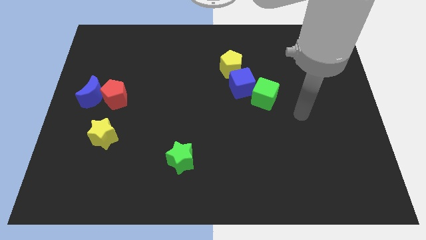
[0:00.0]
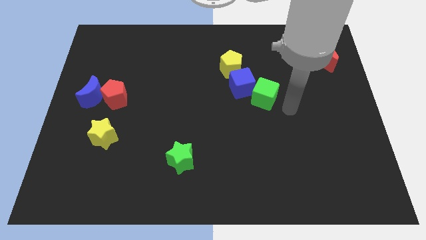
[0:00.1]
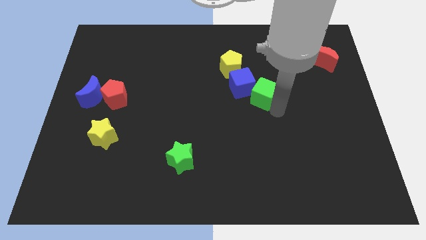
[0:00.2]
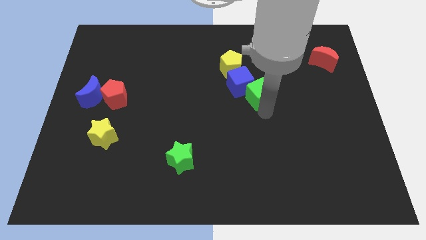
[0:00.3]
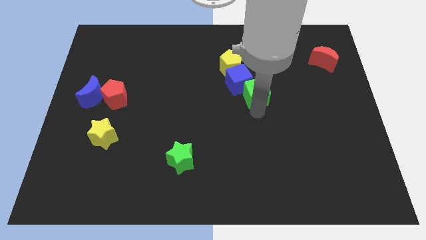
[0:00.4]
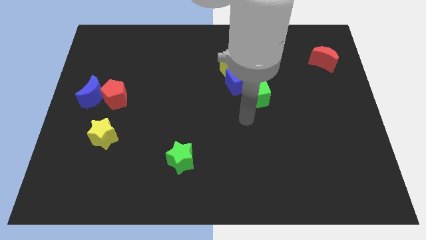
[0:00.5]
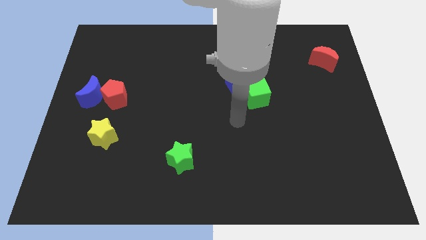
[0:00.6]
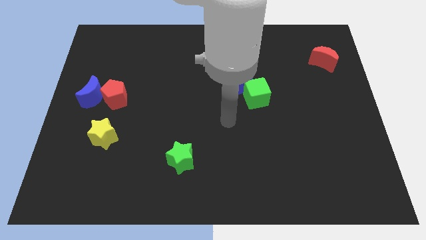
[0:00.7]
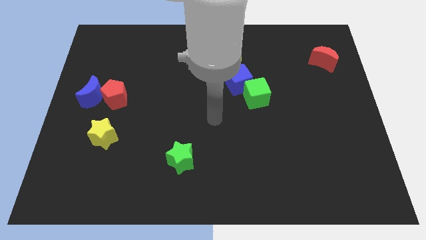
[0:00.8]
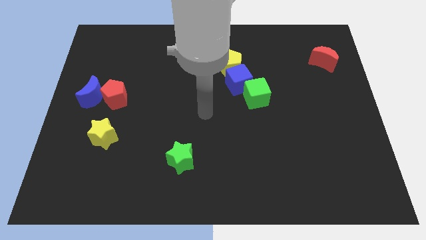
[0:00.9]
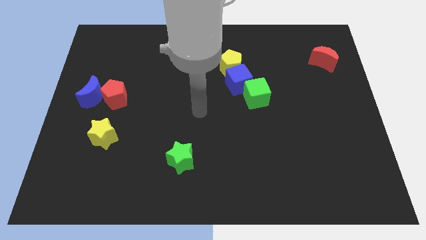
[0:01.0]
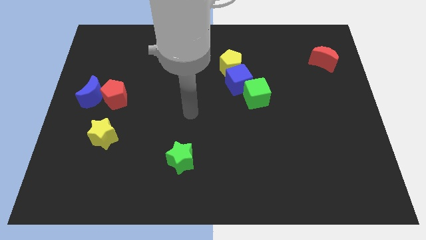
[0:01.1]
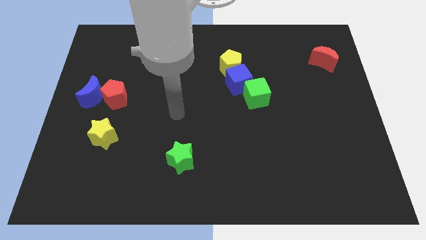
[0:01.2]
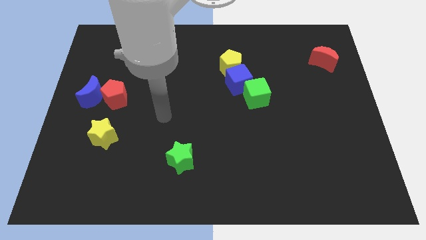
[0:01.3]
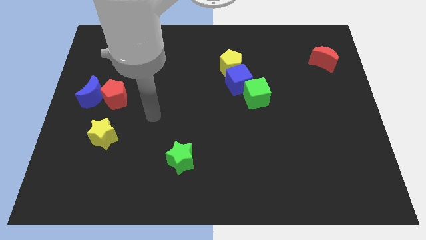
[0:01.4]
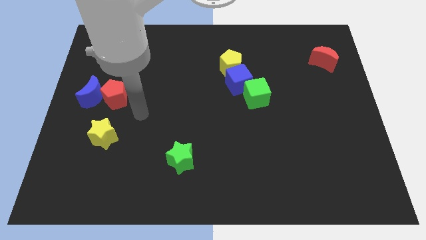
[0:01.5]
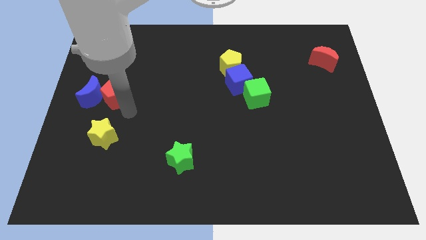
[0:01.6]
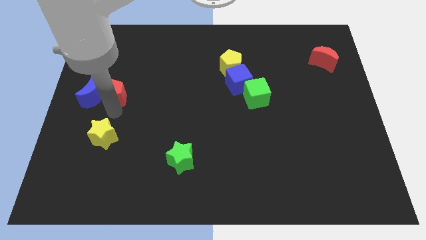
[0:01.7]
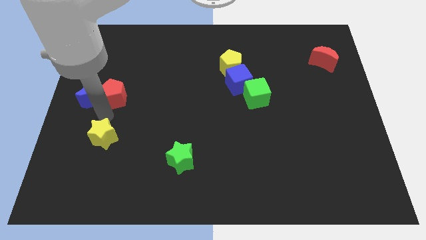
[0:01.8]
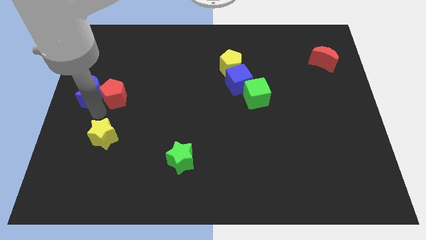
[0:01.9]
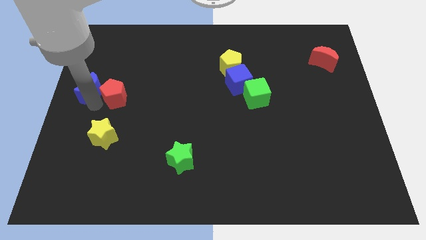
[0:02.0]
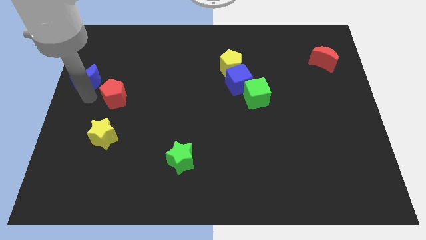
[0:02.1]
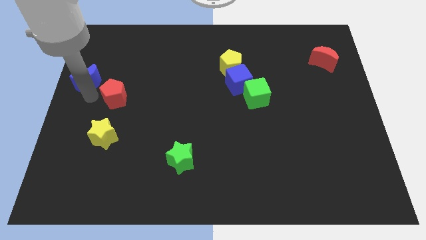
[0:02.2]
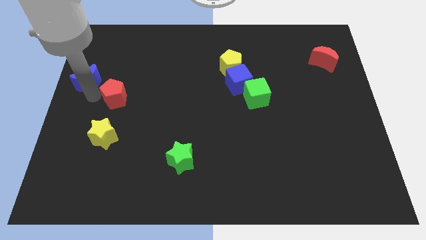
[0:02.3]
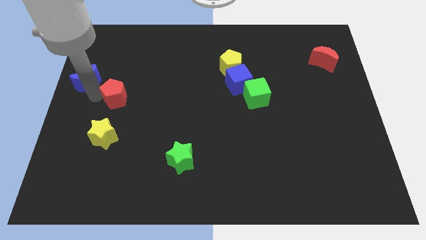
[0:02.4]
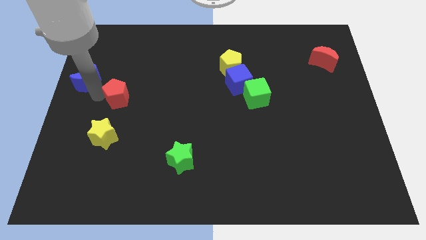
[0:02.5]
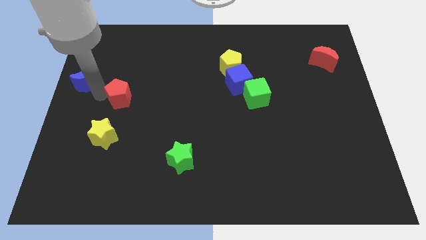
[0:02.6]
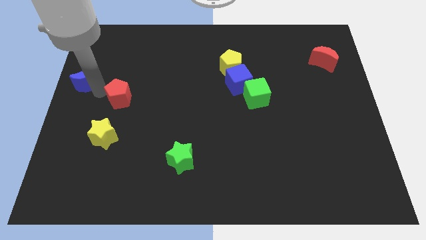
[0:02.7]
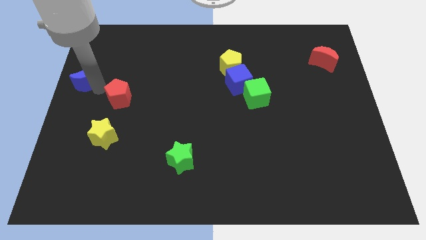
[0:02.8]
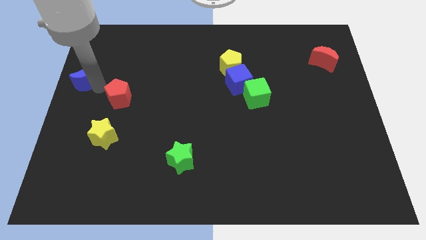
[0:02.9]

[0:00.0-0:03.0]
move the red pentagon away from the blue moon

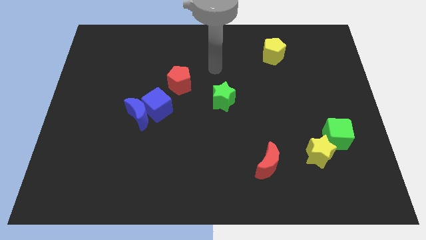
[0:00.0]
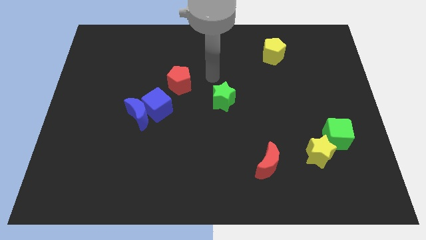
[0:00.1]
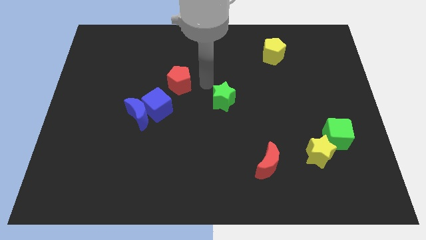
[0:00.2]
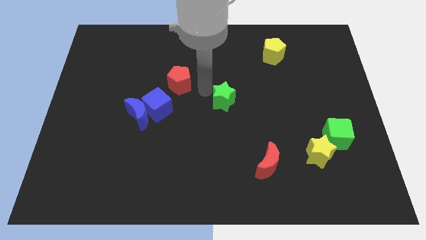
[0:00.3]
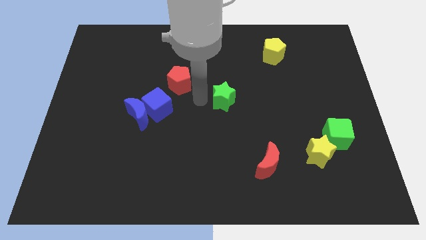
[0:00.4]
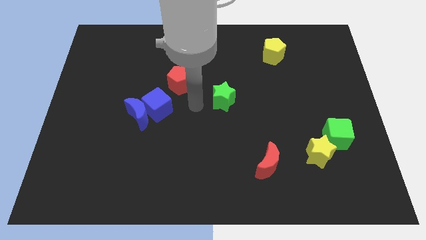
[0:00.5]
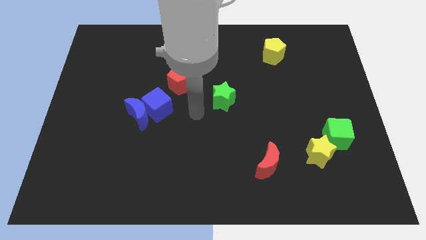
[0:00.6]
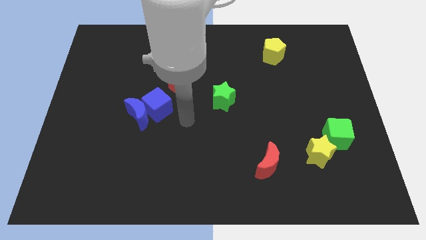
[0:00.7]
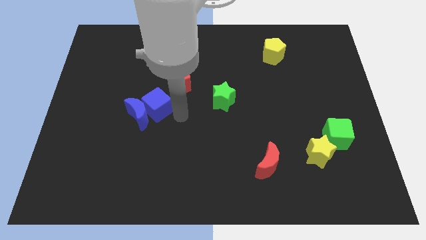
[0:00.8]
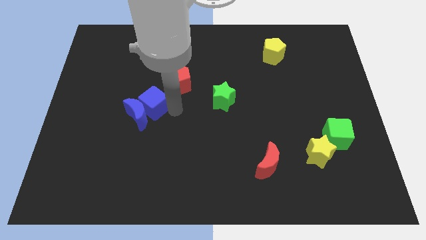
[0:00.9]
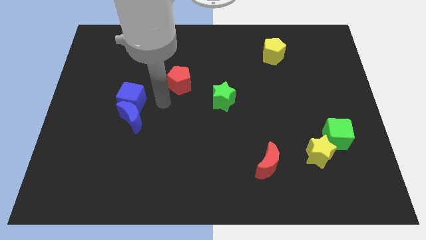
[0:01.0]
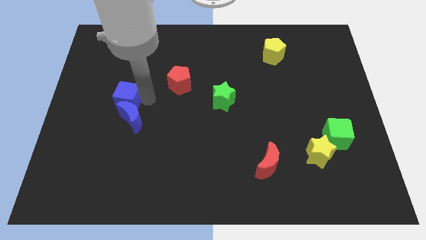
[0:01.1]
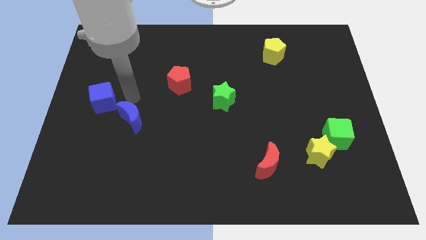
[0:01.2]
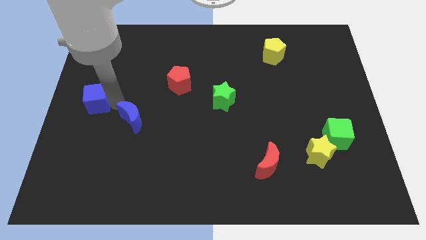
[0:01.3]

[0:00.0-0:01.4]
separate the blue moon from the blue cube

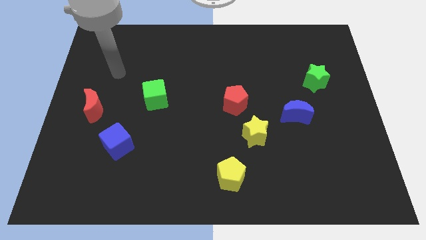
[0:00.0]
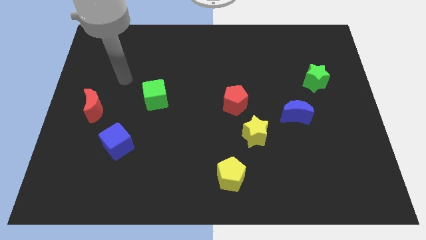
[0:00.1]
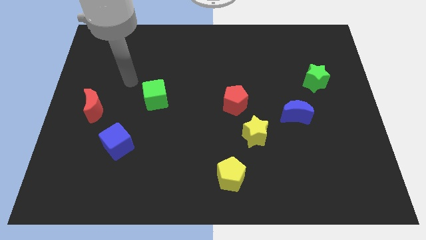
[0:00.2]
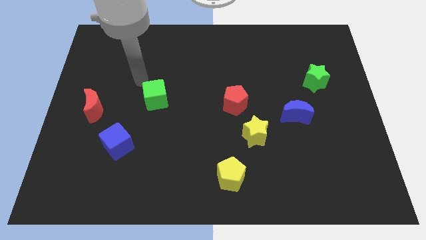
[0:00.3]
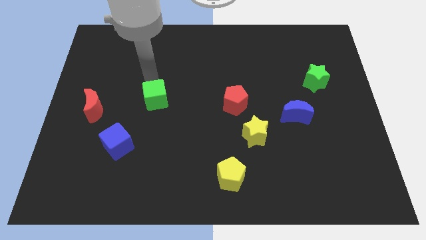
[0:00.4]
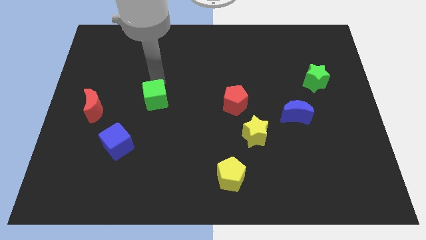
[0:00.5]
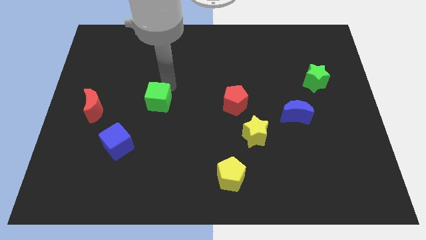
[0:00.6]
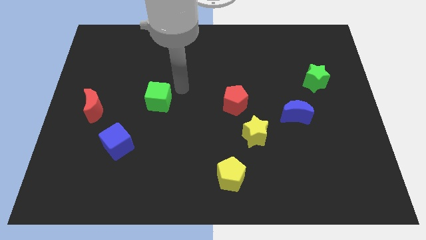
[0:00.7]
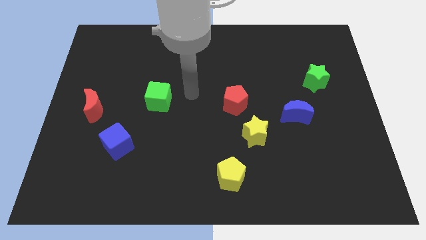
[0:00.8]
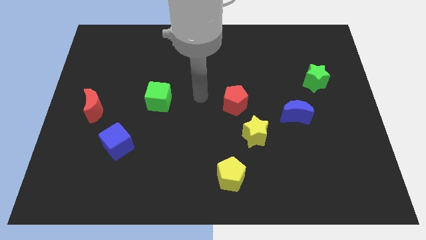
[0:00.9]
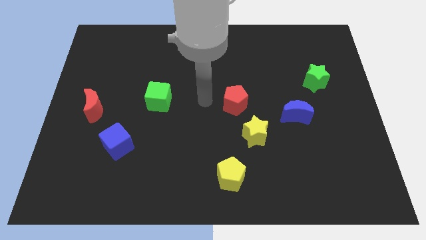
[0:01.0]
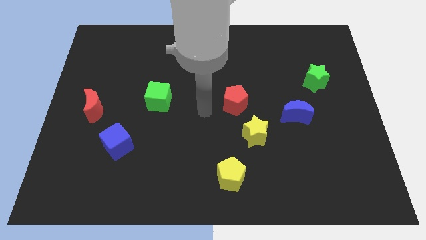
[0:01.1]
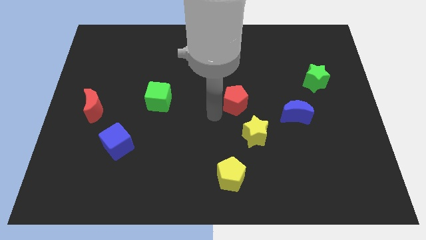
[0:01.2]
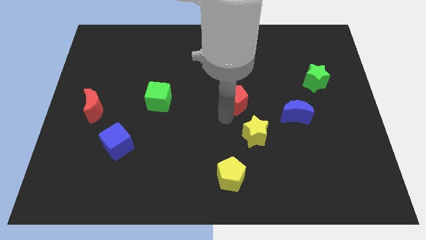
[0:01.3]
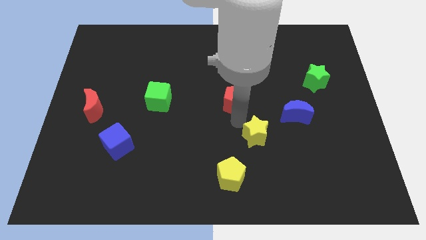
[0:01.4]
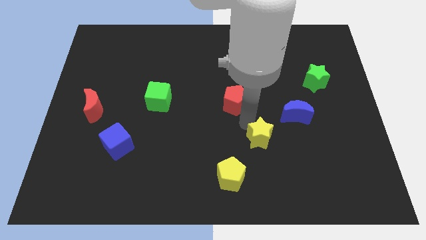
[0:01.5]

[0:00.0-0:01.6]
move the red pentagon away from the yellow star

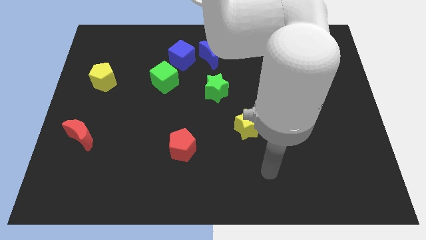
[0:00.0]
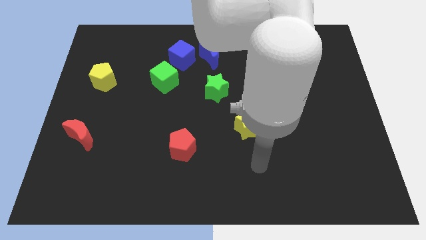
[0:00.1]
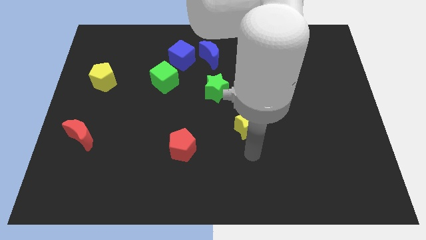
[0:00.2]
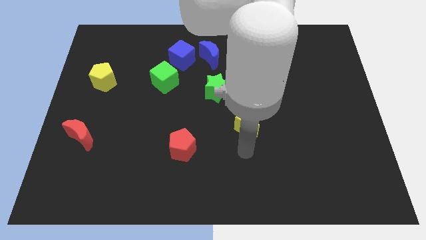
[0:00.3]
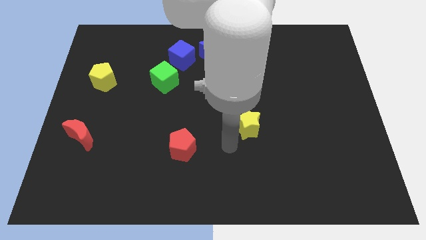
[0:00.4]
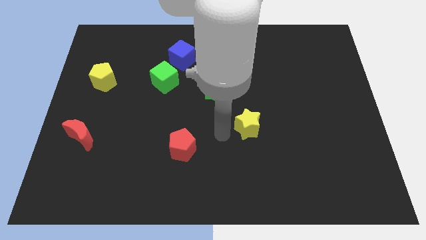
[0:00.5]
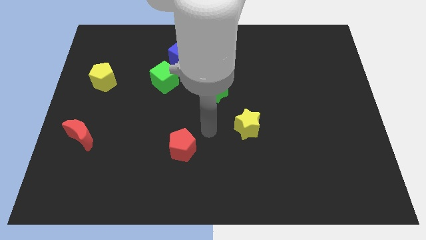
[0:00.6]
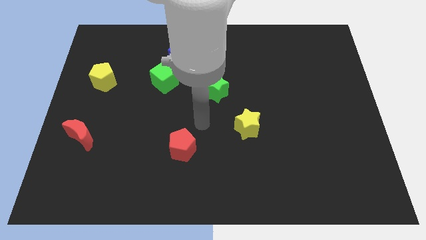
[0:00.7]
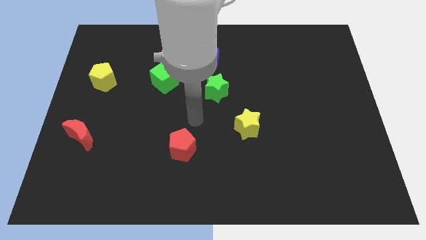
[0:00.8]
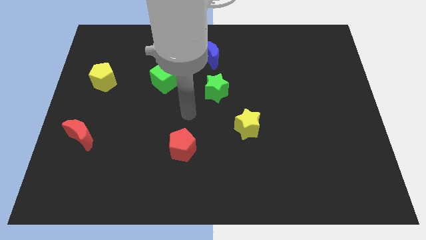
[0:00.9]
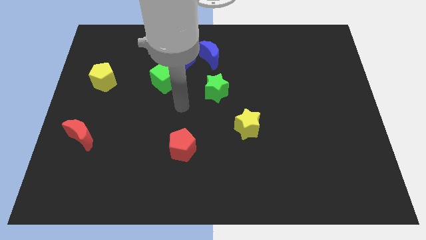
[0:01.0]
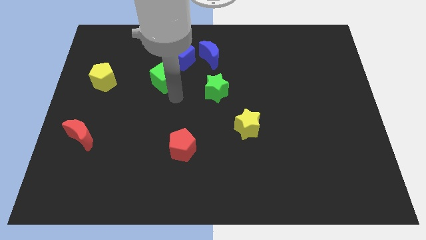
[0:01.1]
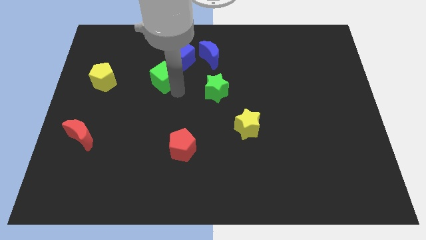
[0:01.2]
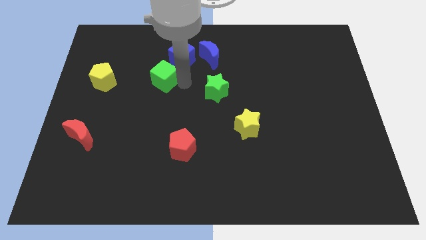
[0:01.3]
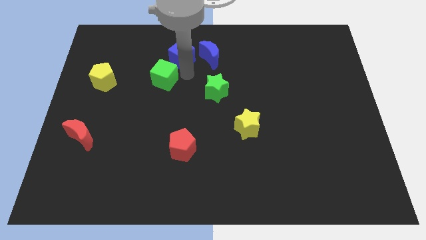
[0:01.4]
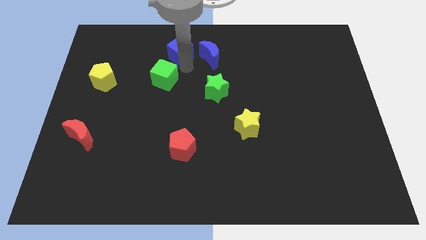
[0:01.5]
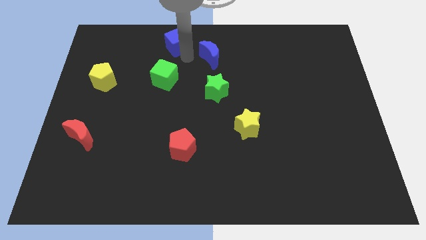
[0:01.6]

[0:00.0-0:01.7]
move the blue moon away from the blue cube

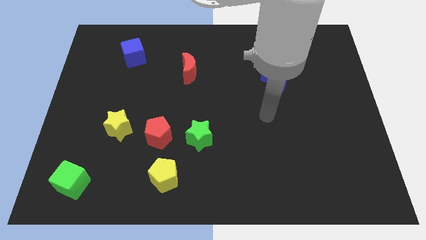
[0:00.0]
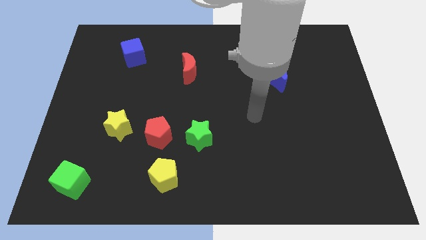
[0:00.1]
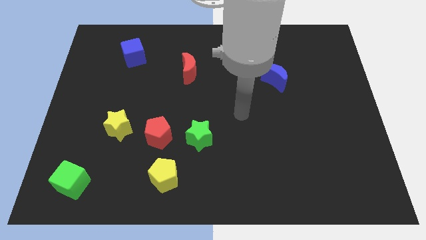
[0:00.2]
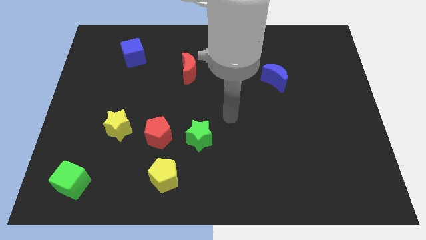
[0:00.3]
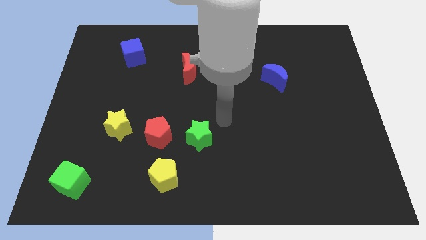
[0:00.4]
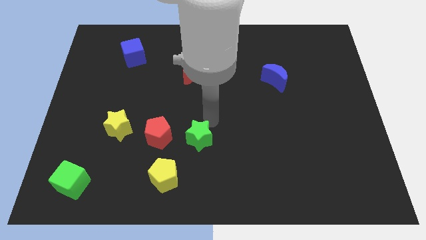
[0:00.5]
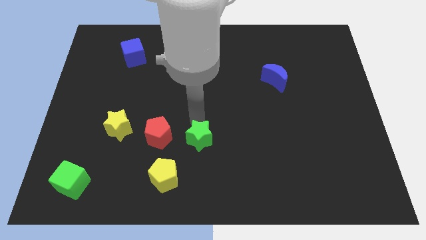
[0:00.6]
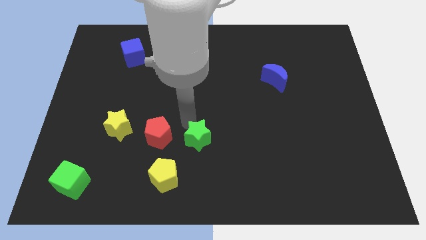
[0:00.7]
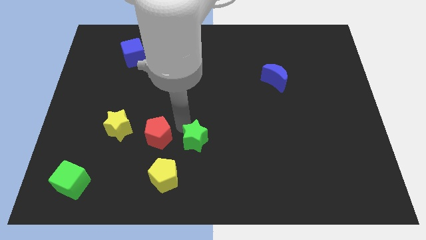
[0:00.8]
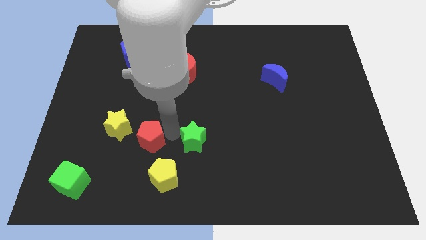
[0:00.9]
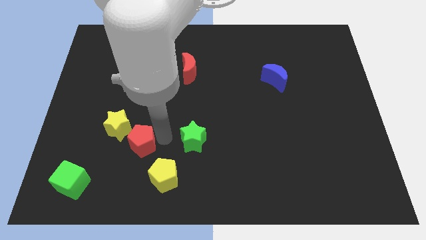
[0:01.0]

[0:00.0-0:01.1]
pull the green star apart from the red pentagon

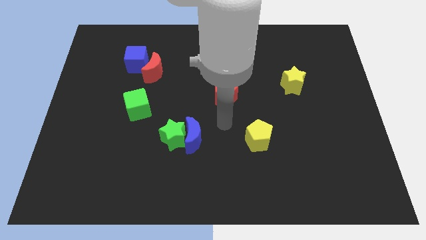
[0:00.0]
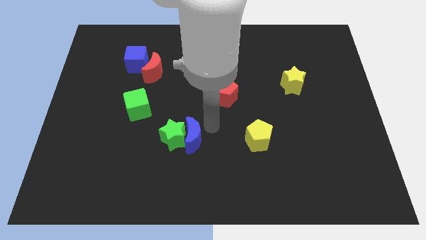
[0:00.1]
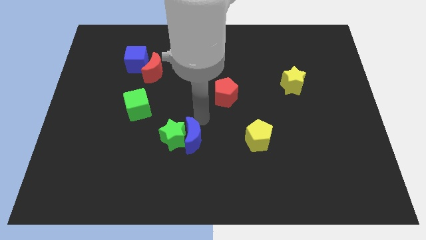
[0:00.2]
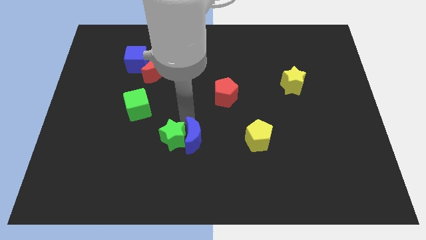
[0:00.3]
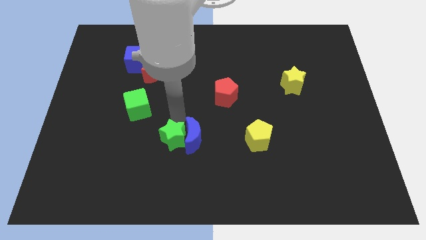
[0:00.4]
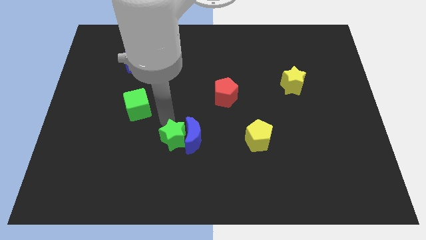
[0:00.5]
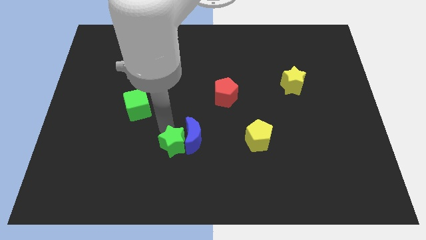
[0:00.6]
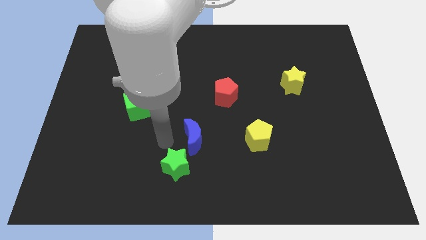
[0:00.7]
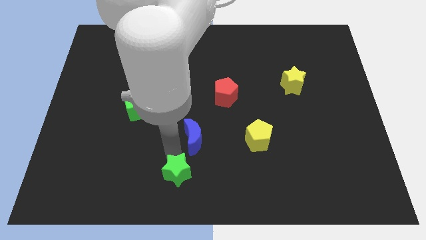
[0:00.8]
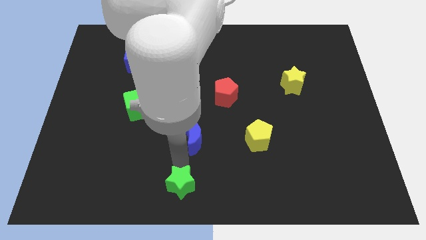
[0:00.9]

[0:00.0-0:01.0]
move the blue moon away from the green star